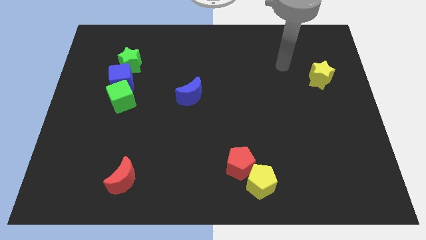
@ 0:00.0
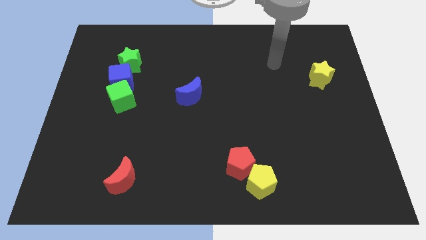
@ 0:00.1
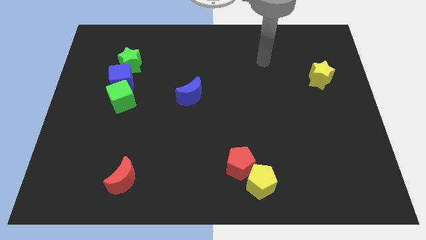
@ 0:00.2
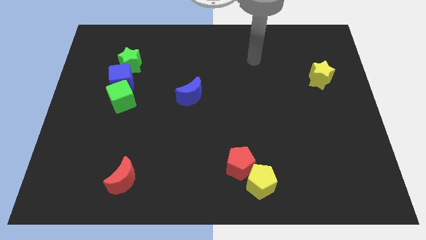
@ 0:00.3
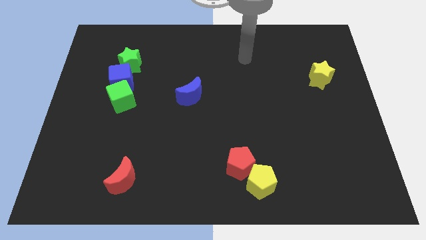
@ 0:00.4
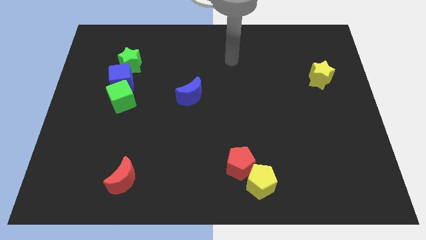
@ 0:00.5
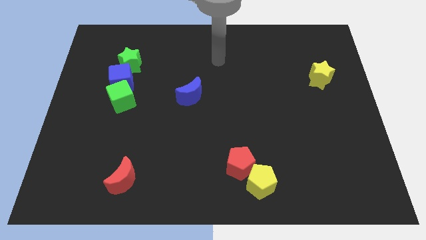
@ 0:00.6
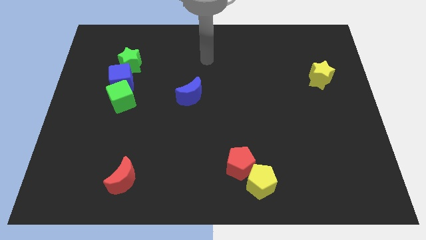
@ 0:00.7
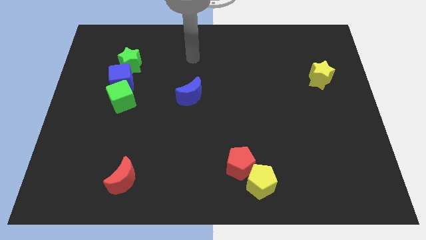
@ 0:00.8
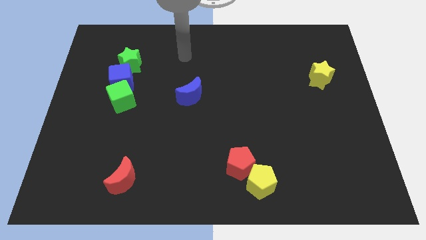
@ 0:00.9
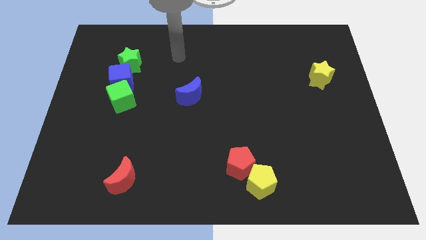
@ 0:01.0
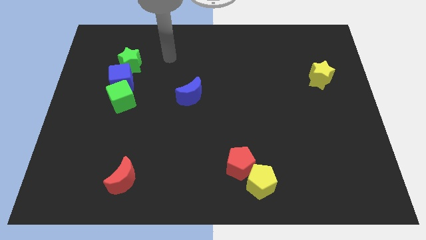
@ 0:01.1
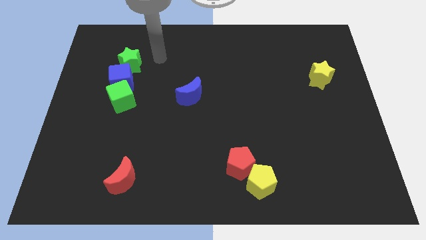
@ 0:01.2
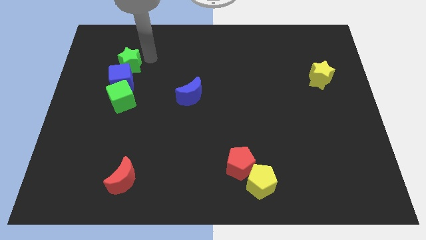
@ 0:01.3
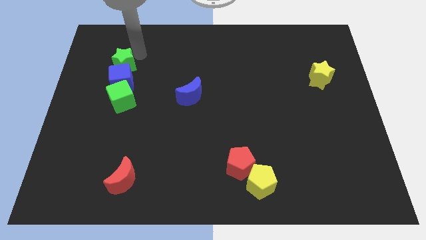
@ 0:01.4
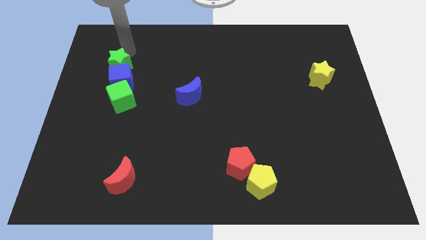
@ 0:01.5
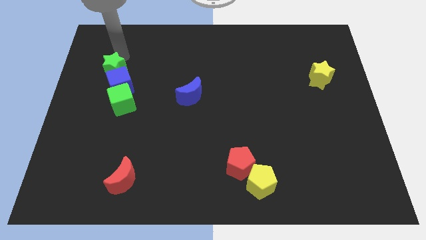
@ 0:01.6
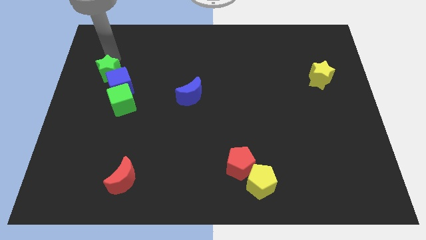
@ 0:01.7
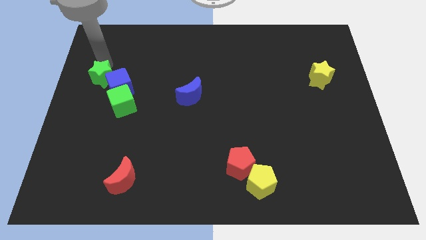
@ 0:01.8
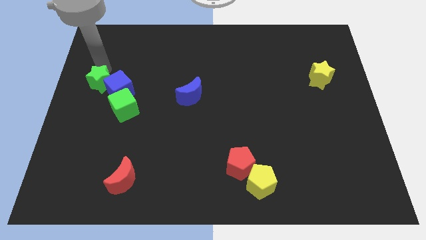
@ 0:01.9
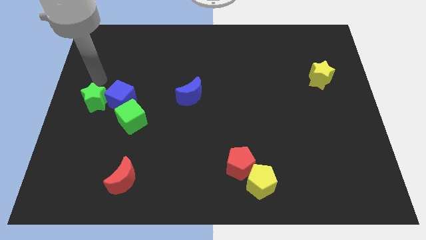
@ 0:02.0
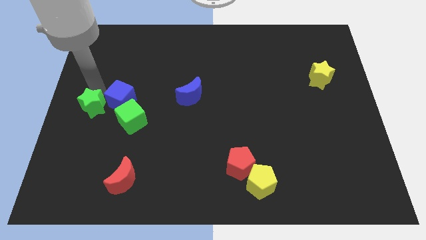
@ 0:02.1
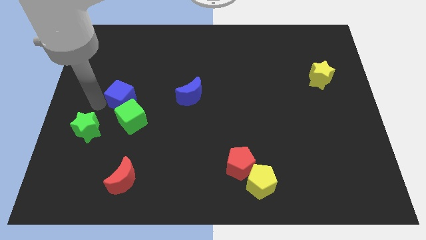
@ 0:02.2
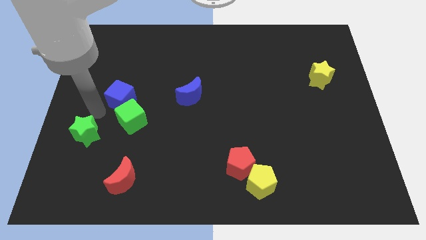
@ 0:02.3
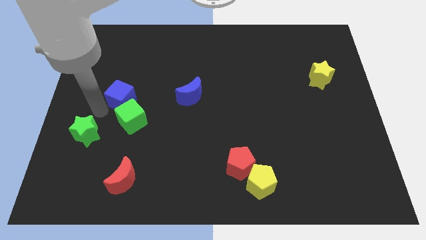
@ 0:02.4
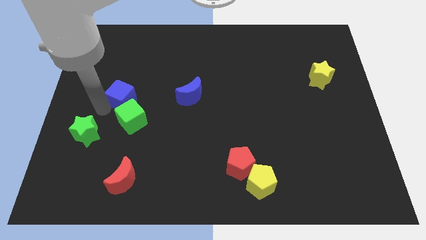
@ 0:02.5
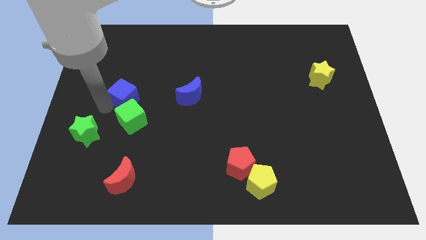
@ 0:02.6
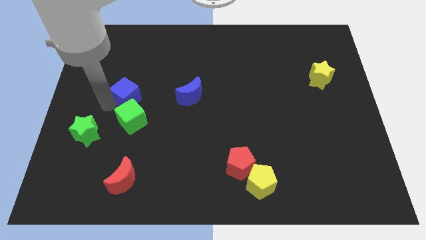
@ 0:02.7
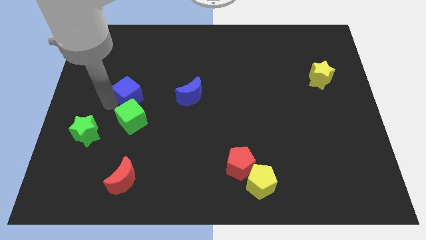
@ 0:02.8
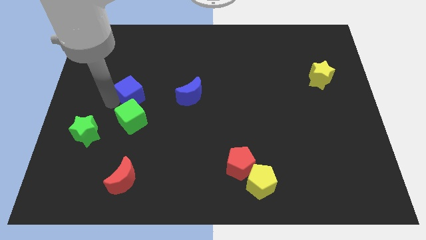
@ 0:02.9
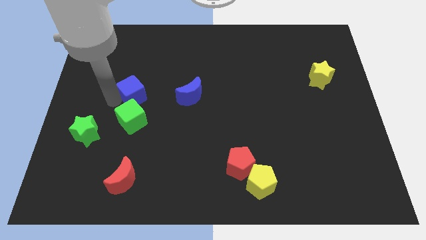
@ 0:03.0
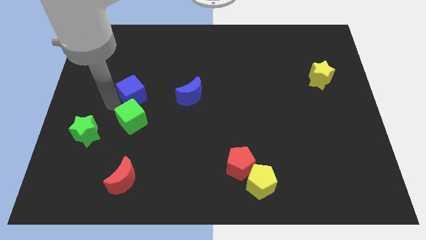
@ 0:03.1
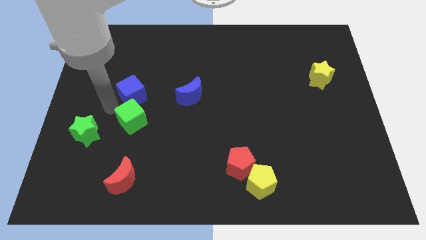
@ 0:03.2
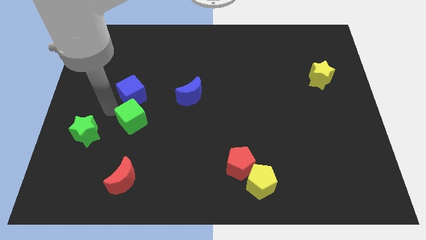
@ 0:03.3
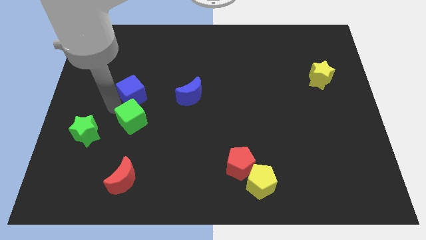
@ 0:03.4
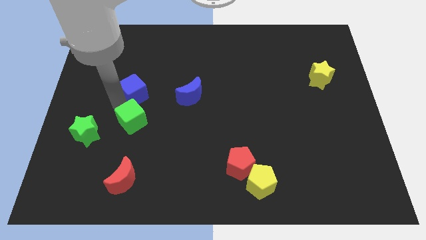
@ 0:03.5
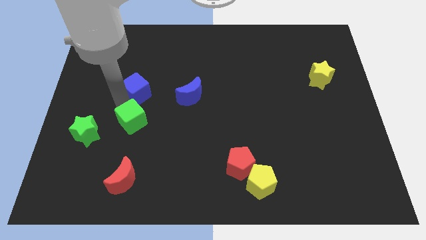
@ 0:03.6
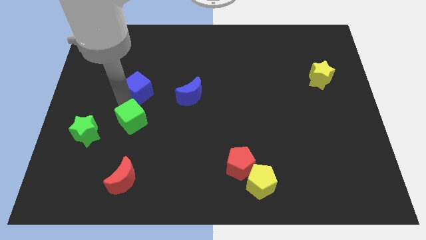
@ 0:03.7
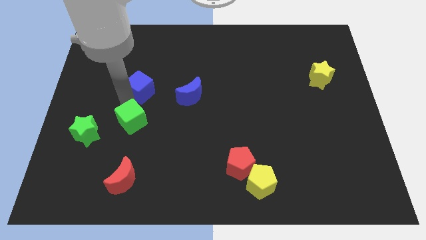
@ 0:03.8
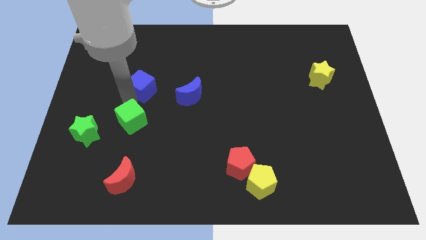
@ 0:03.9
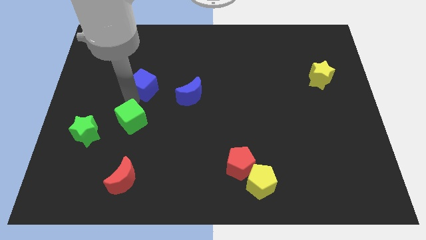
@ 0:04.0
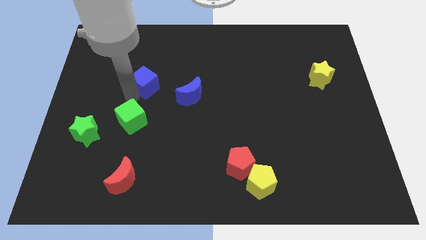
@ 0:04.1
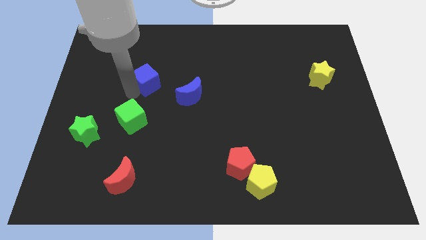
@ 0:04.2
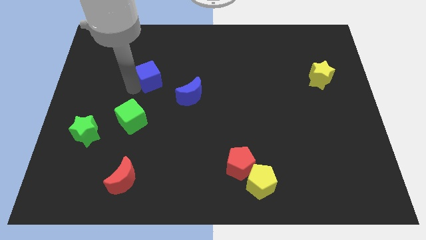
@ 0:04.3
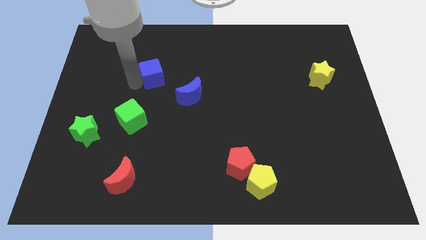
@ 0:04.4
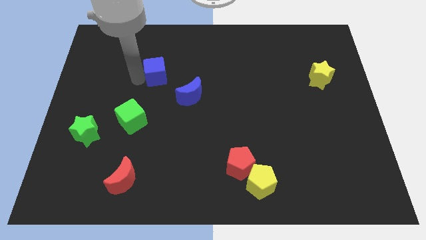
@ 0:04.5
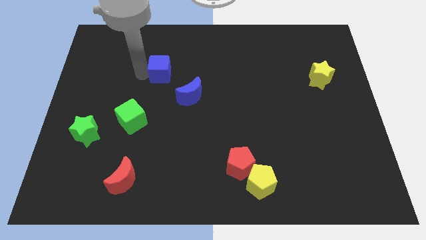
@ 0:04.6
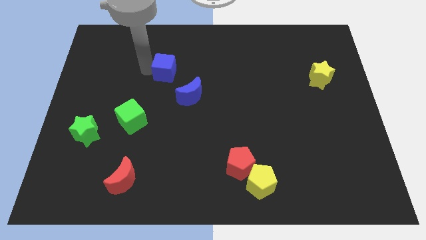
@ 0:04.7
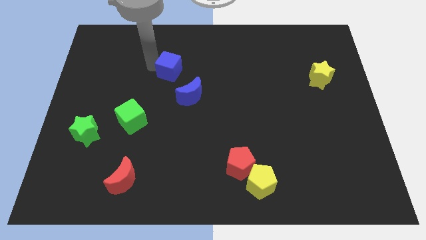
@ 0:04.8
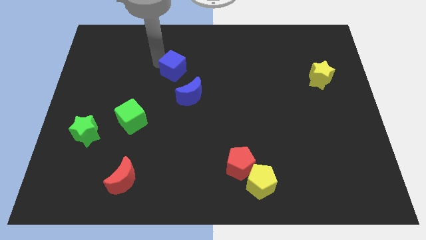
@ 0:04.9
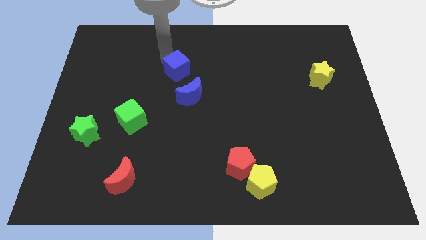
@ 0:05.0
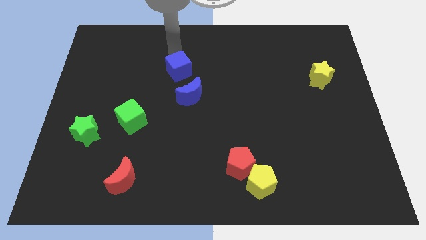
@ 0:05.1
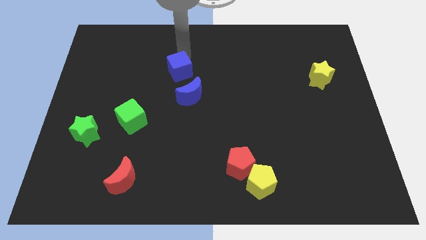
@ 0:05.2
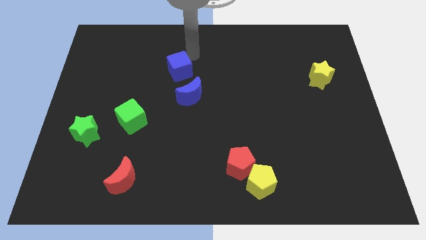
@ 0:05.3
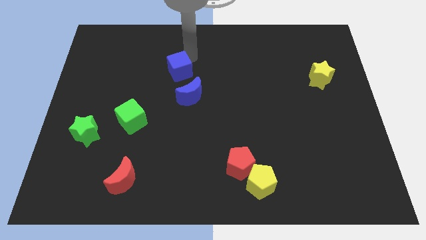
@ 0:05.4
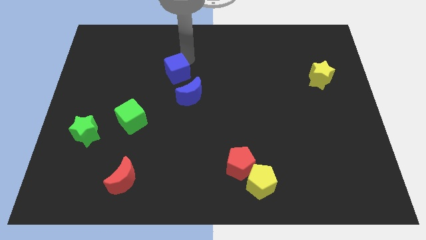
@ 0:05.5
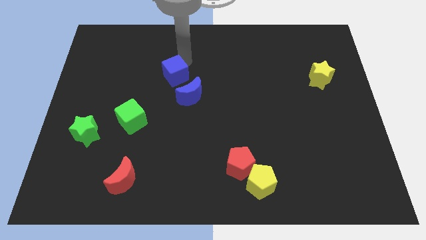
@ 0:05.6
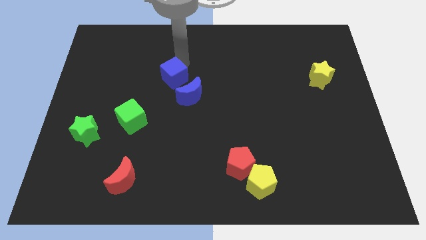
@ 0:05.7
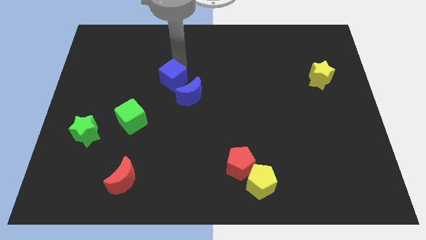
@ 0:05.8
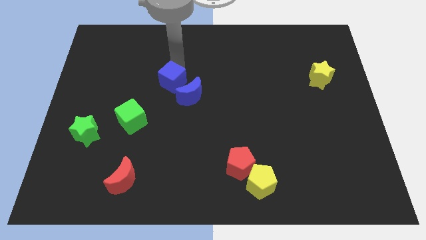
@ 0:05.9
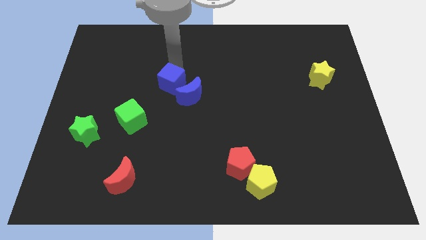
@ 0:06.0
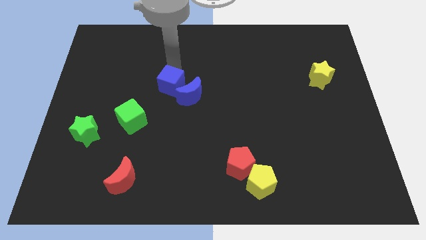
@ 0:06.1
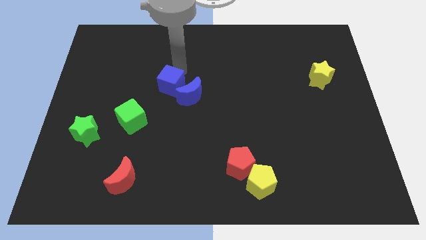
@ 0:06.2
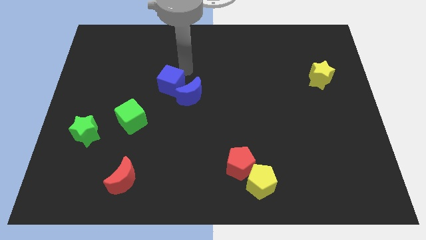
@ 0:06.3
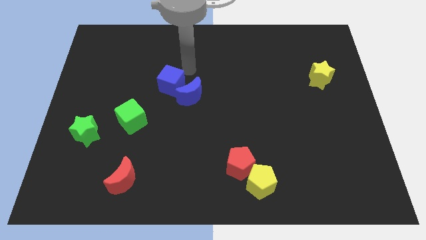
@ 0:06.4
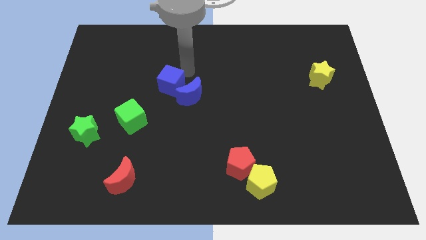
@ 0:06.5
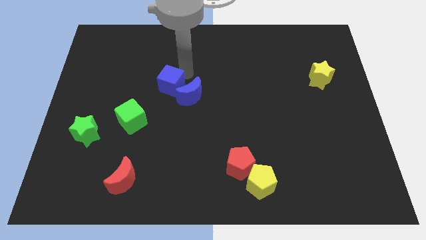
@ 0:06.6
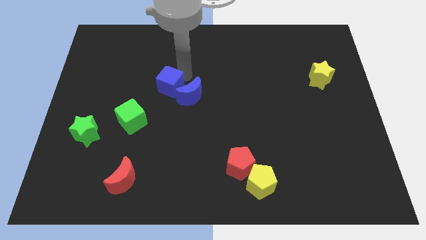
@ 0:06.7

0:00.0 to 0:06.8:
push the blue cube slightly downwards and right

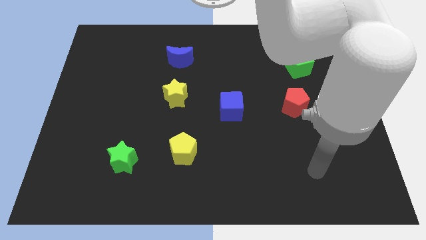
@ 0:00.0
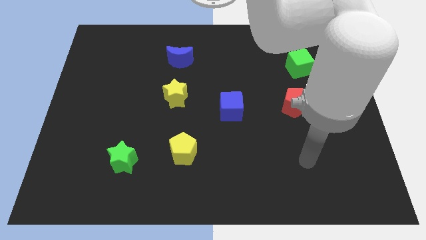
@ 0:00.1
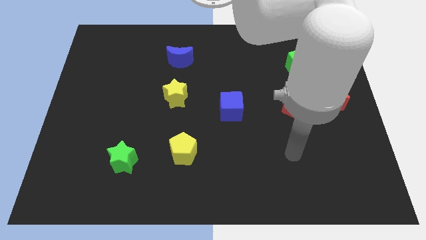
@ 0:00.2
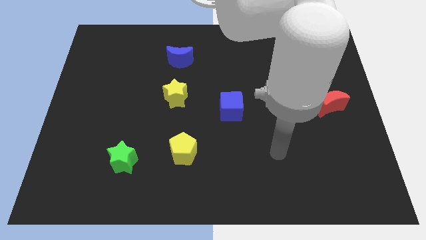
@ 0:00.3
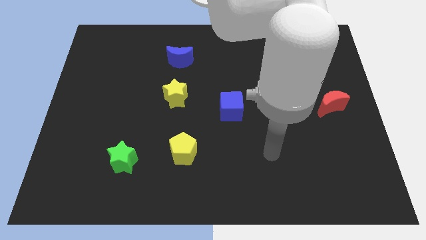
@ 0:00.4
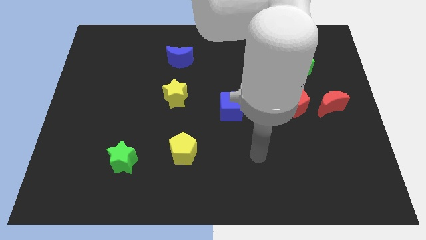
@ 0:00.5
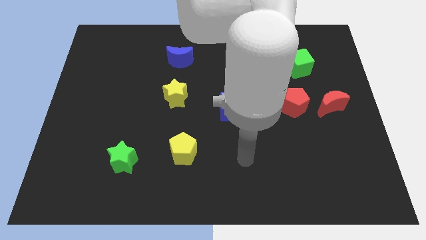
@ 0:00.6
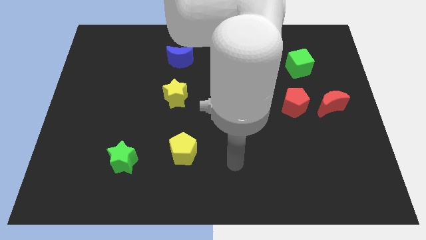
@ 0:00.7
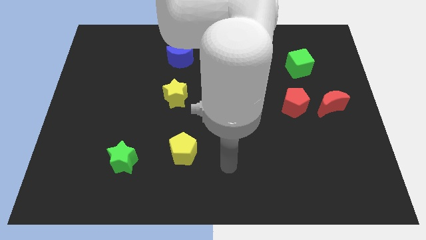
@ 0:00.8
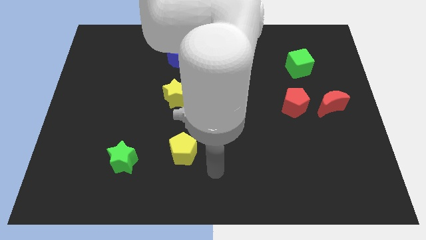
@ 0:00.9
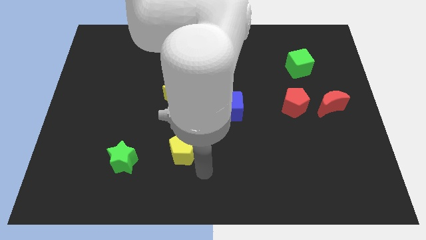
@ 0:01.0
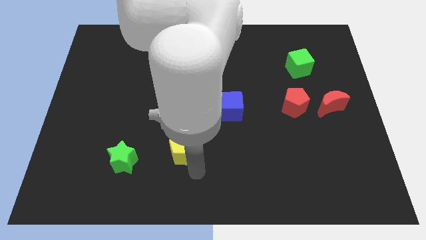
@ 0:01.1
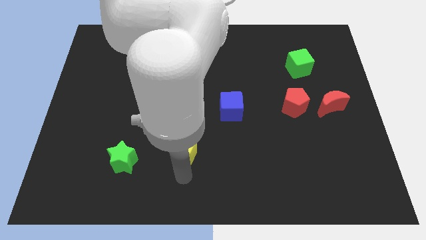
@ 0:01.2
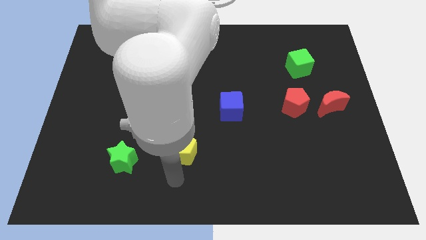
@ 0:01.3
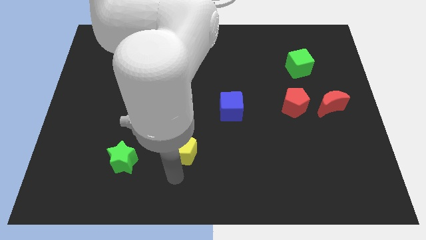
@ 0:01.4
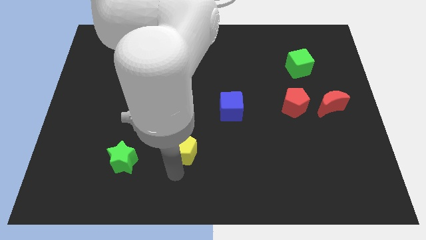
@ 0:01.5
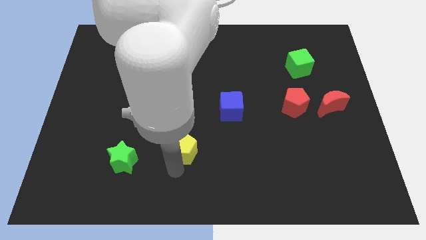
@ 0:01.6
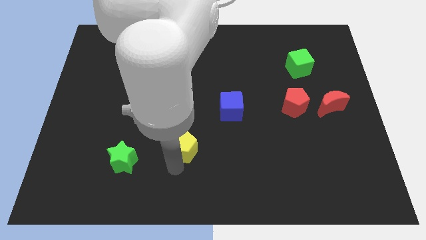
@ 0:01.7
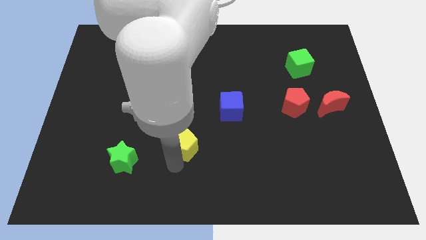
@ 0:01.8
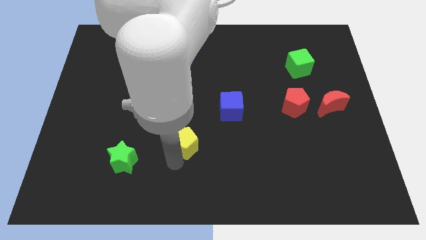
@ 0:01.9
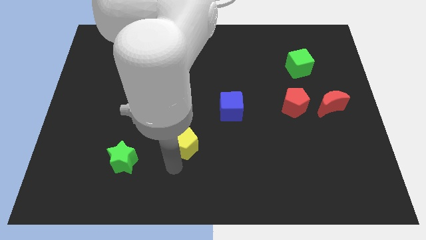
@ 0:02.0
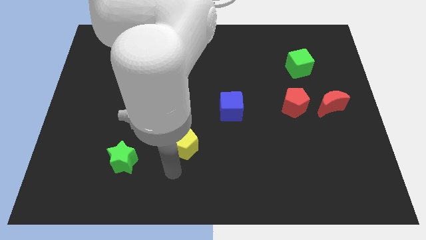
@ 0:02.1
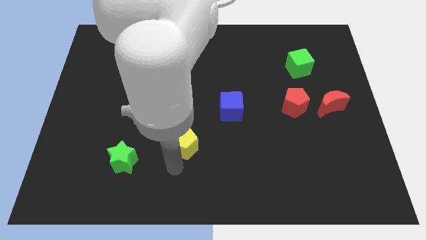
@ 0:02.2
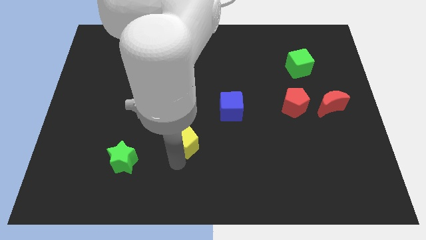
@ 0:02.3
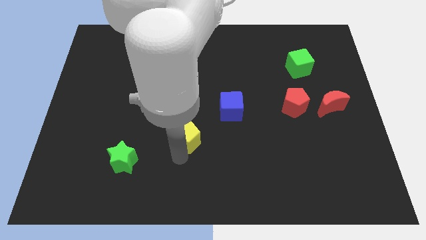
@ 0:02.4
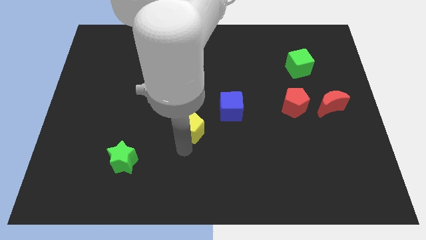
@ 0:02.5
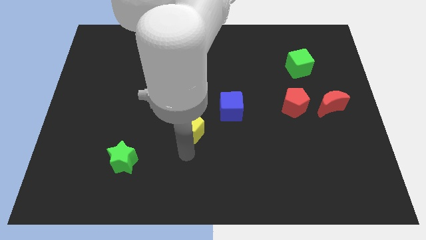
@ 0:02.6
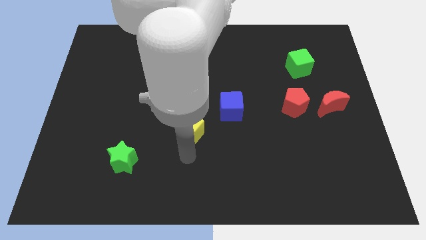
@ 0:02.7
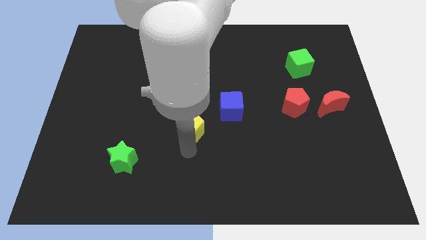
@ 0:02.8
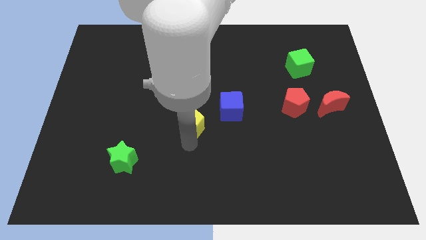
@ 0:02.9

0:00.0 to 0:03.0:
slide the yellow pentagon up a little
